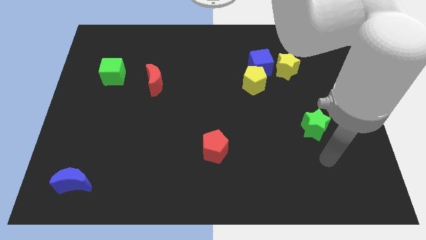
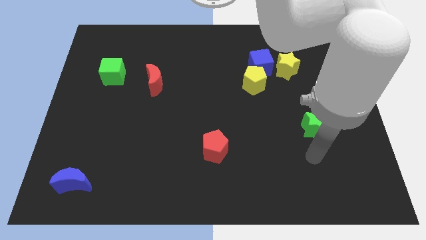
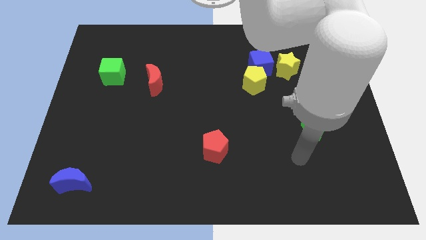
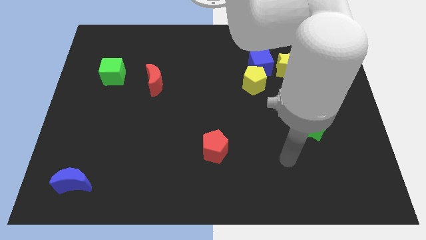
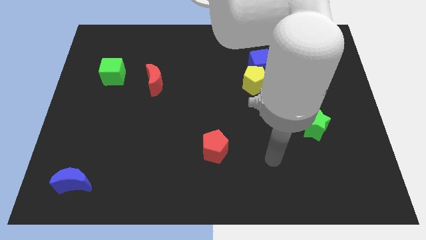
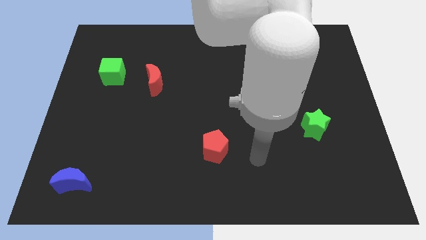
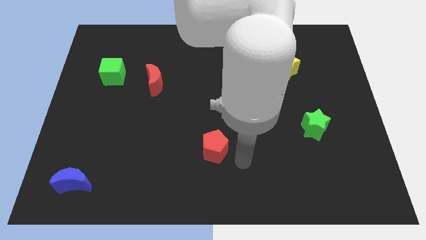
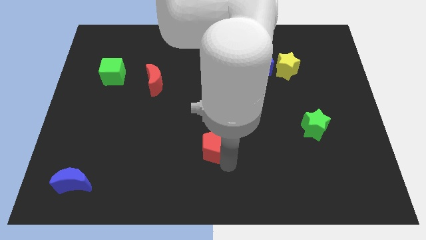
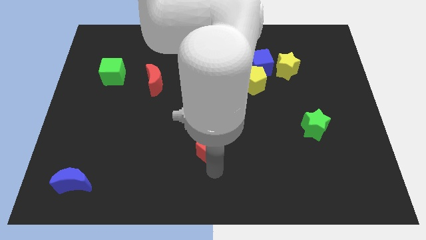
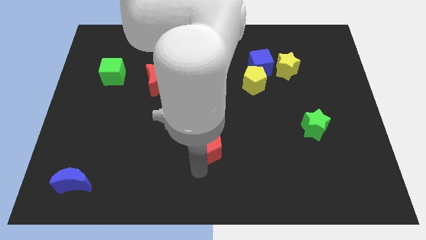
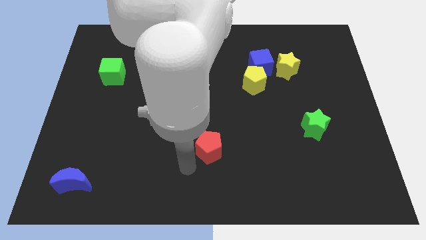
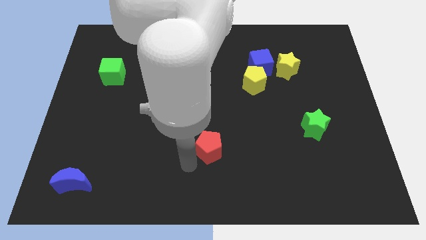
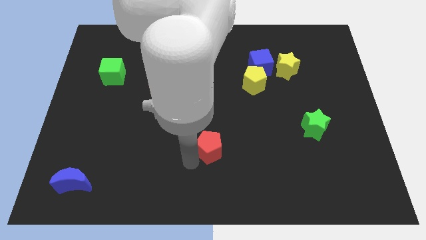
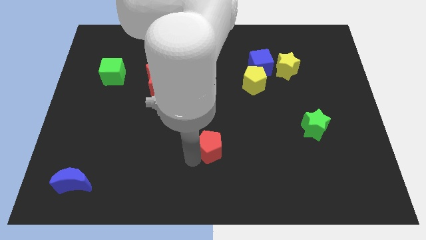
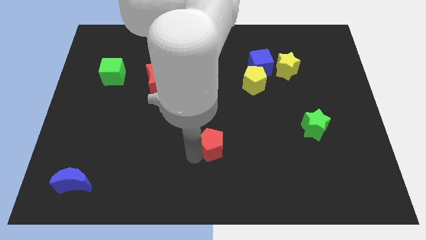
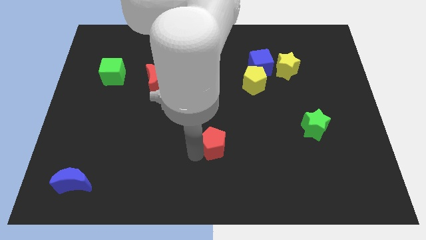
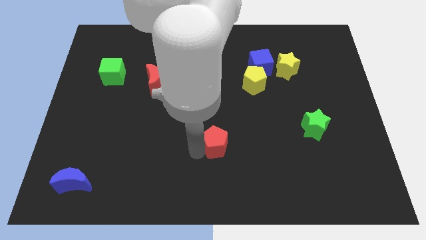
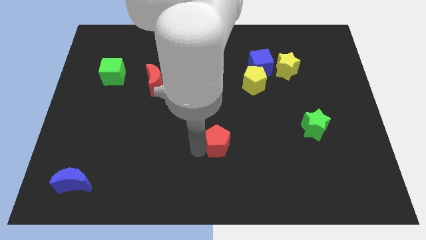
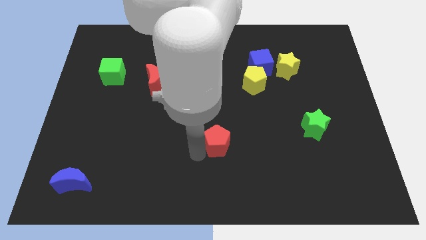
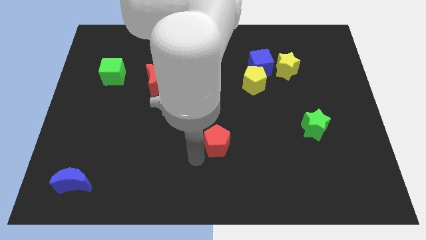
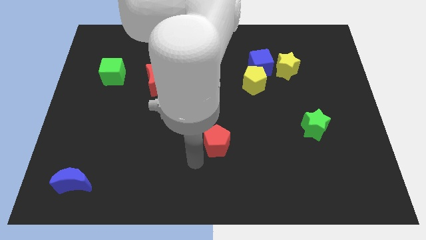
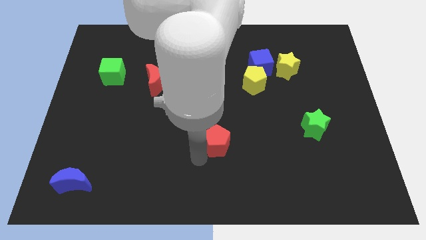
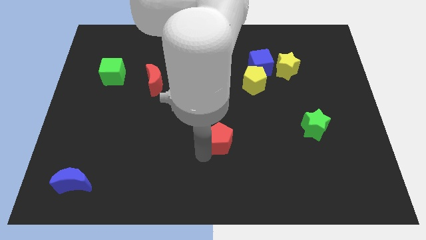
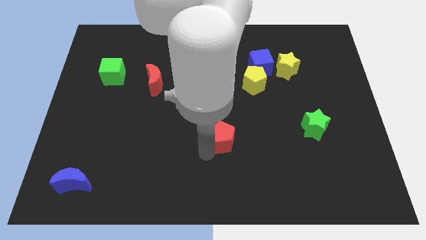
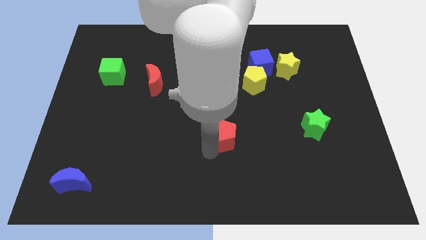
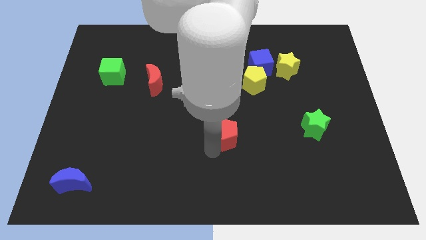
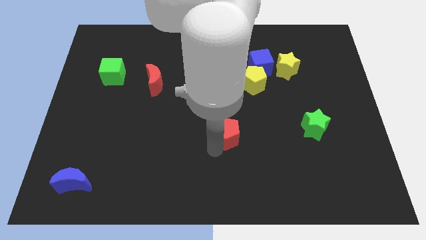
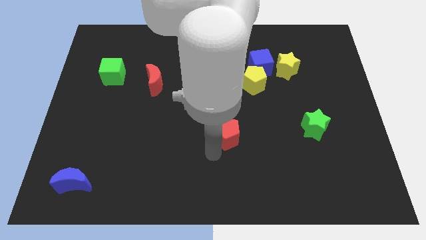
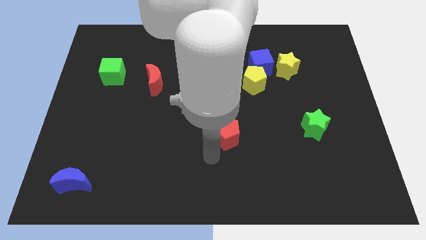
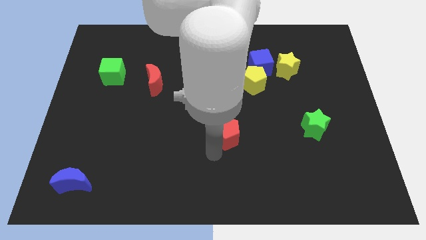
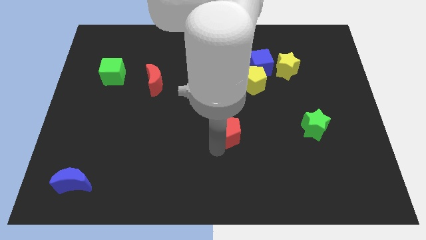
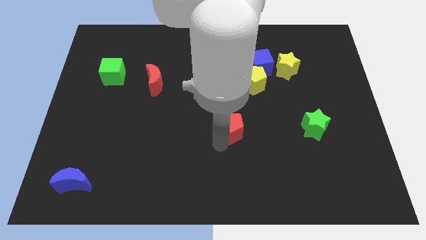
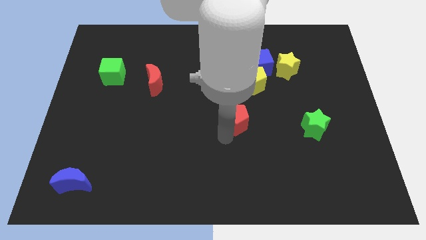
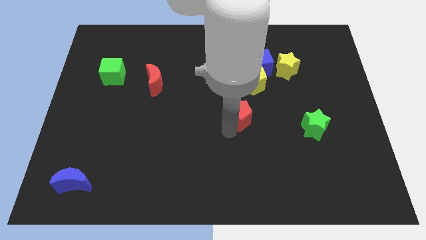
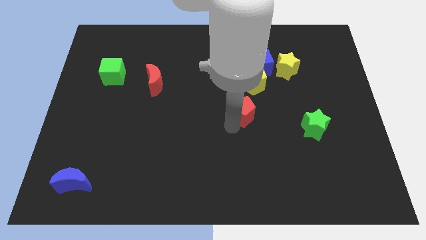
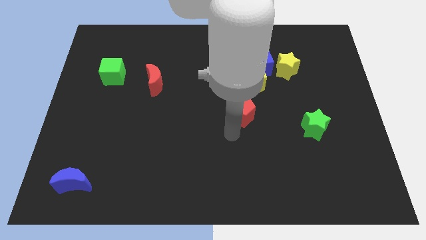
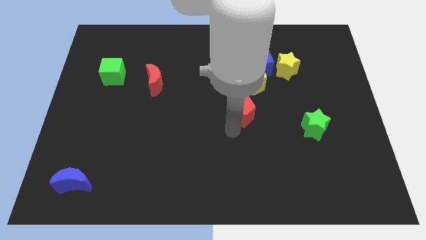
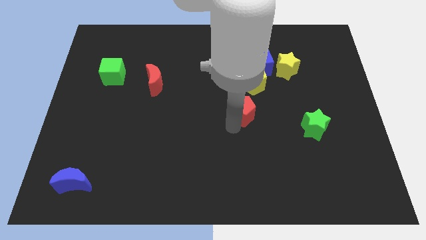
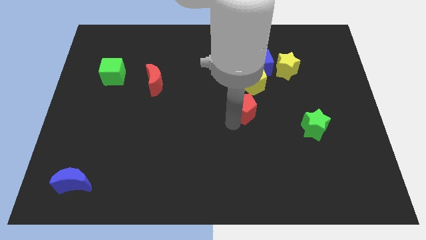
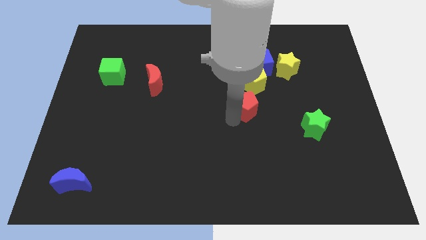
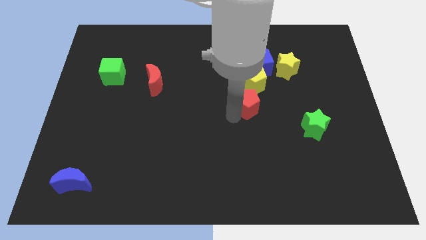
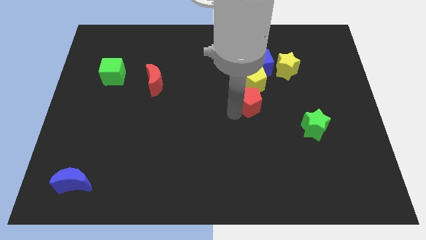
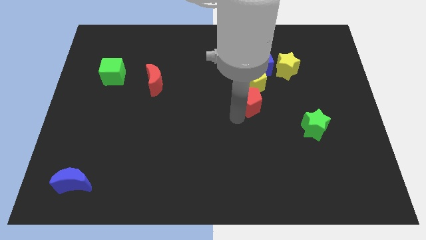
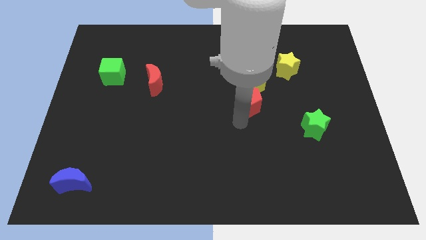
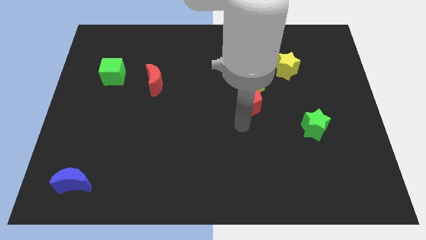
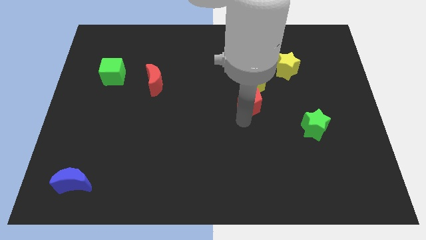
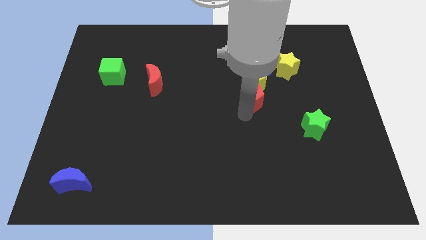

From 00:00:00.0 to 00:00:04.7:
move the red pentagon close to the yellow pentagon

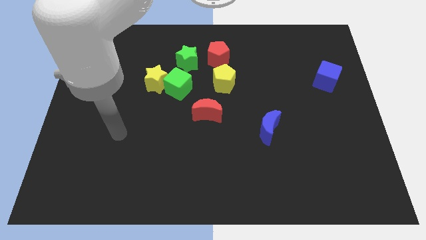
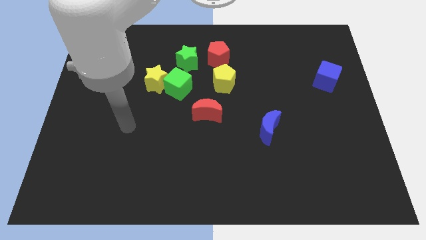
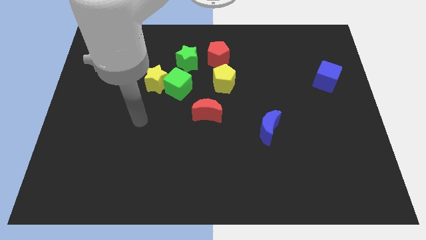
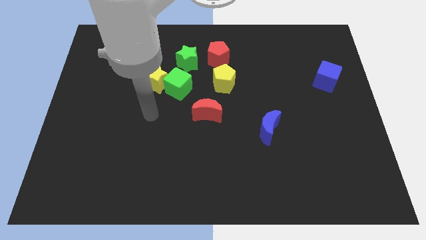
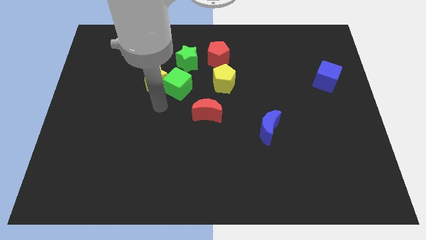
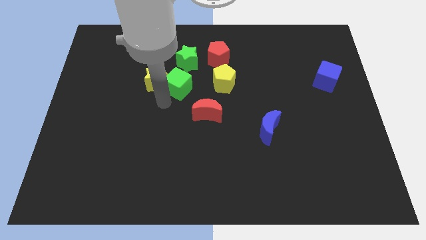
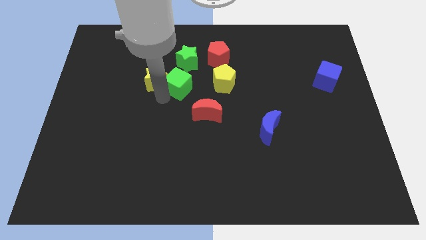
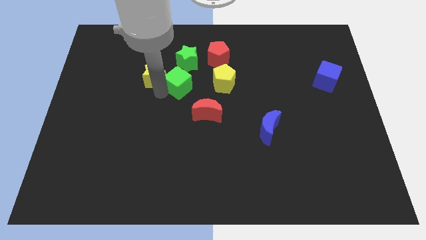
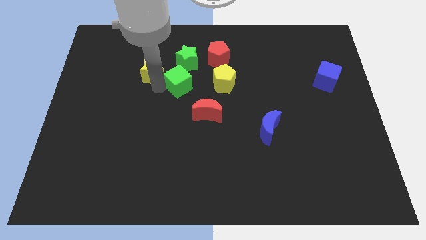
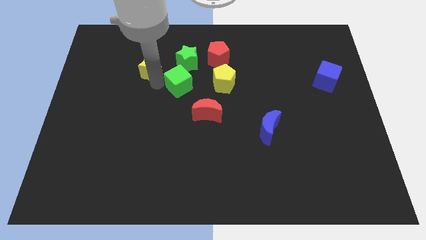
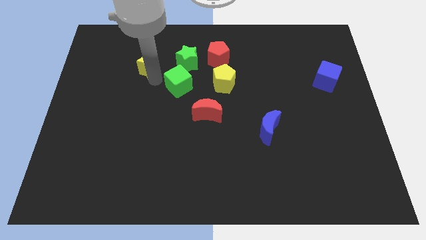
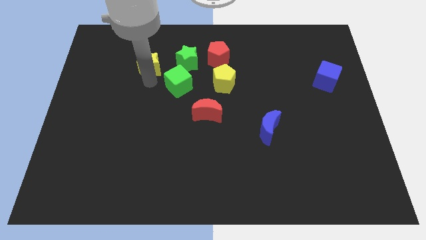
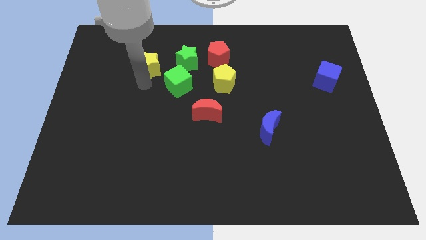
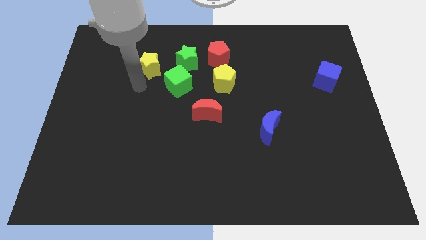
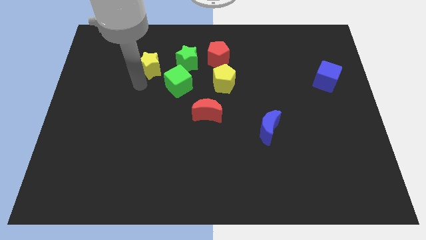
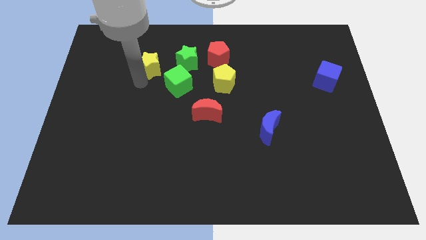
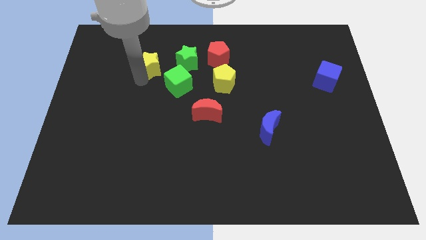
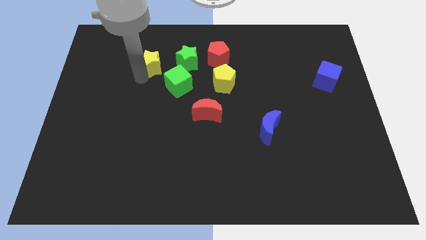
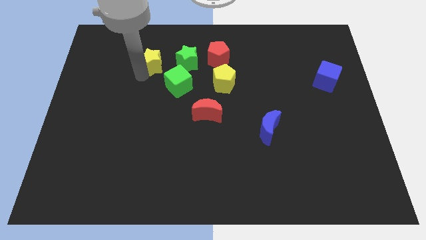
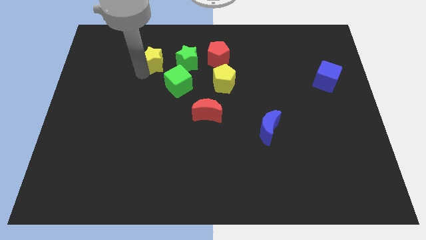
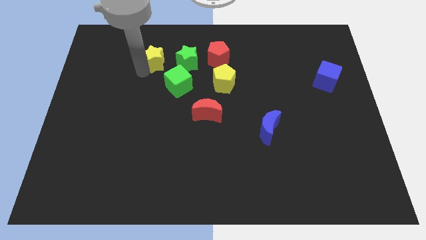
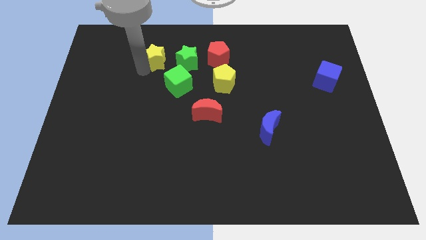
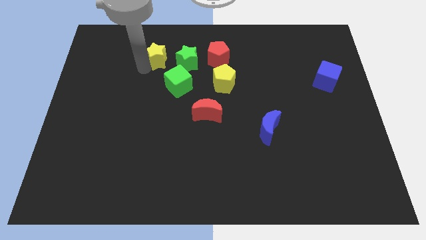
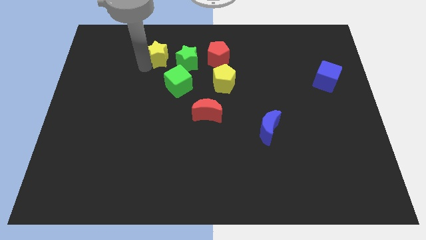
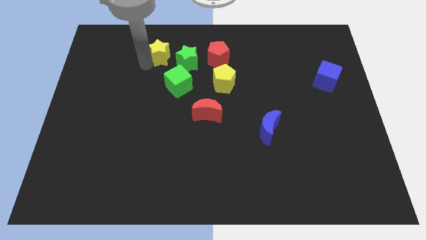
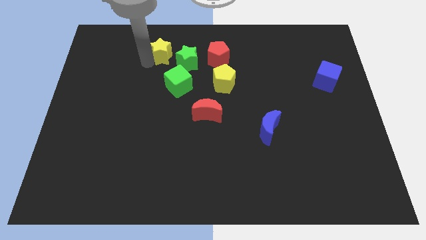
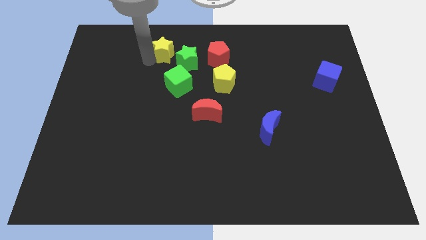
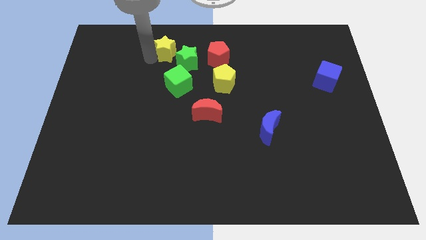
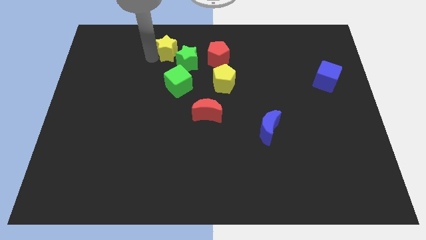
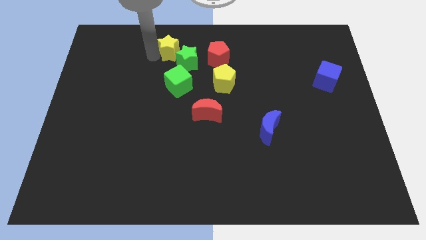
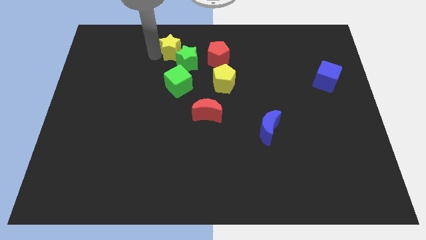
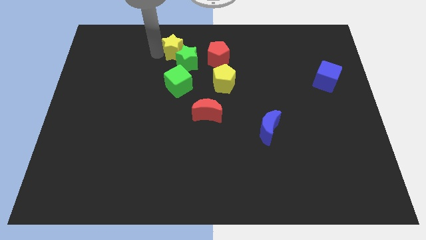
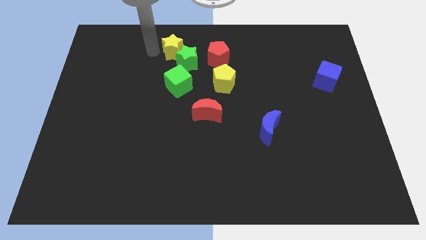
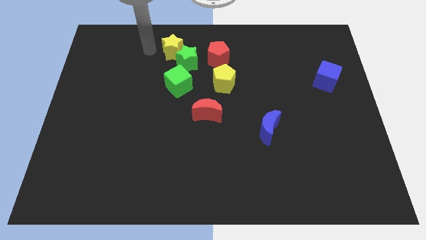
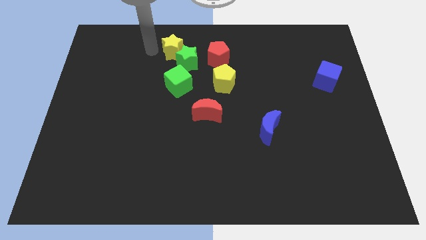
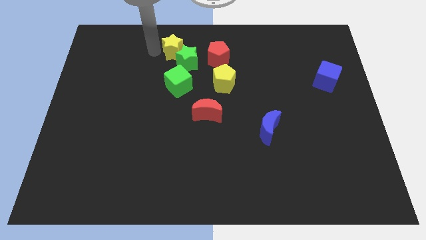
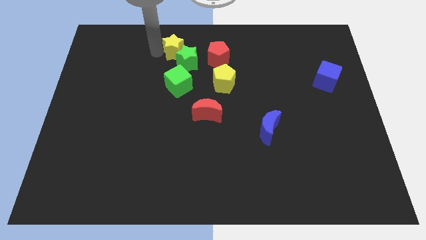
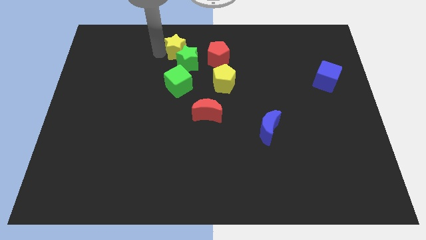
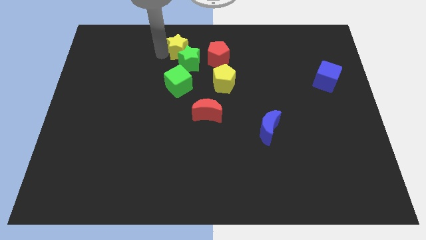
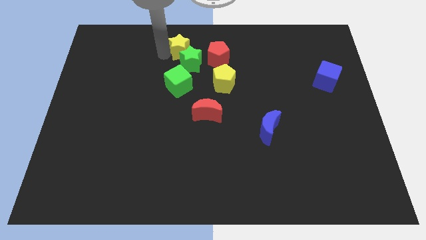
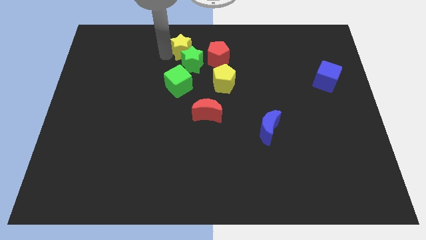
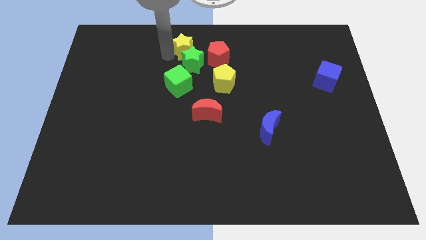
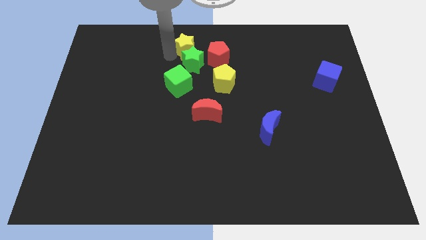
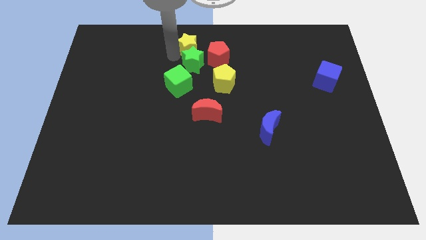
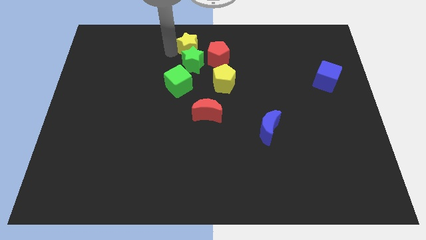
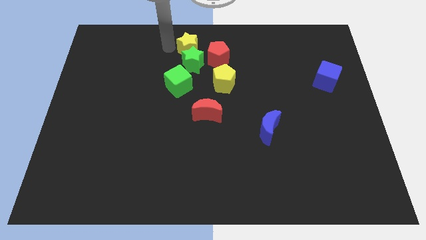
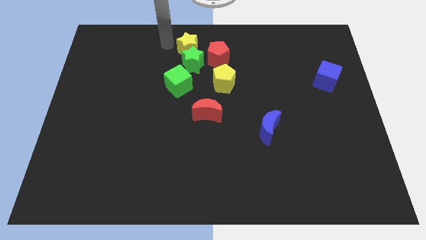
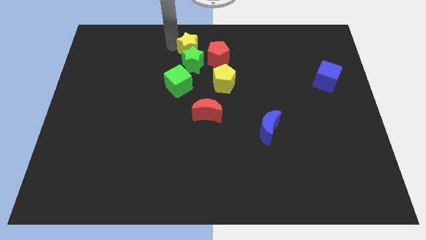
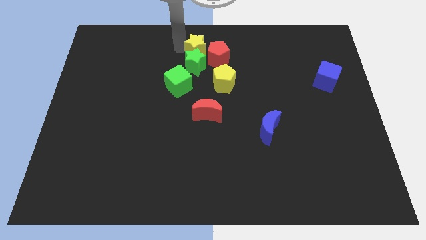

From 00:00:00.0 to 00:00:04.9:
move the yellow star next to the red pentagon
